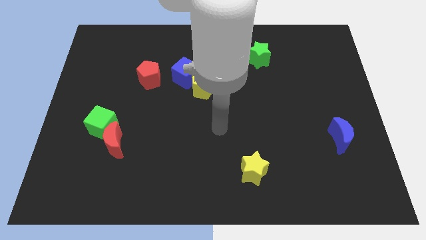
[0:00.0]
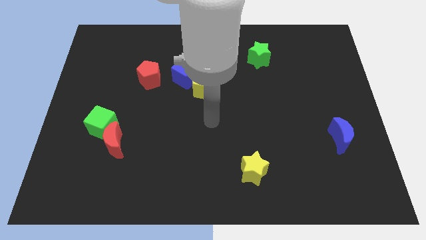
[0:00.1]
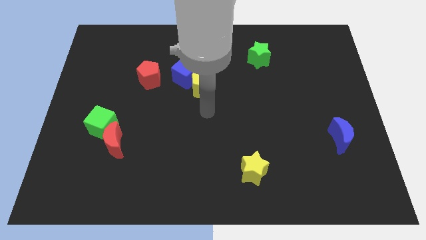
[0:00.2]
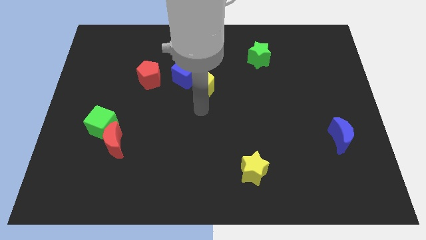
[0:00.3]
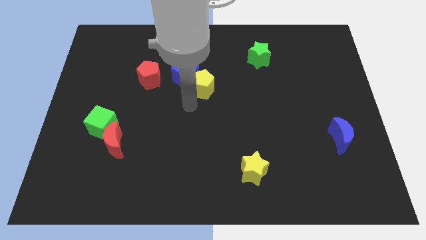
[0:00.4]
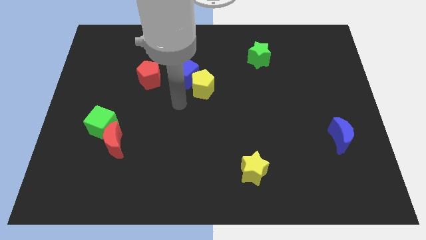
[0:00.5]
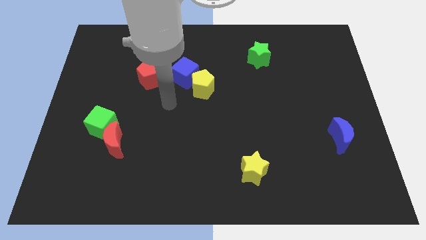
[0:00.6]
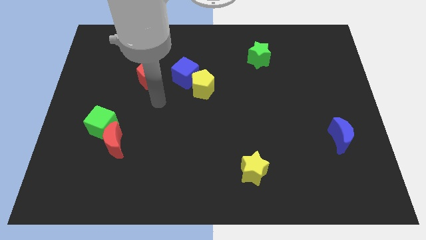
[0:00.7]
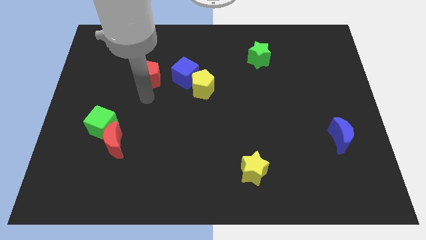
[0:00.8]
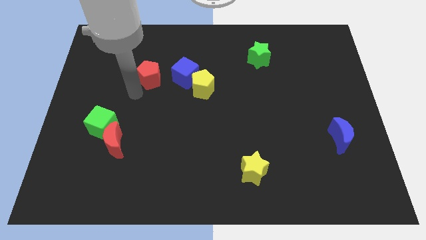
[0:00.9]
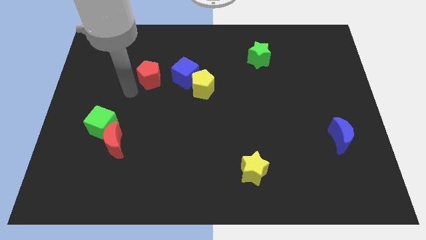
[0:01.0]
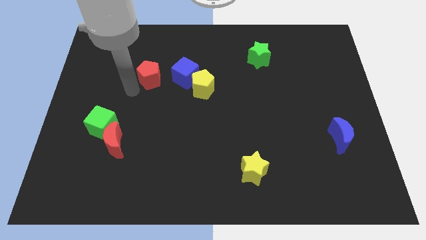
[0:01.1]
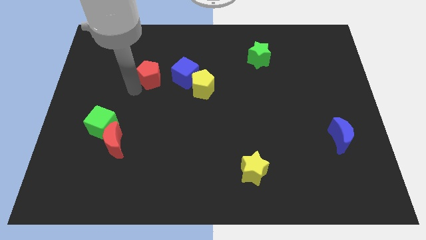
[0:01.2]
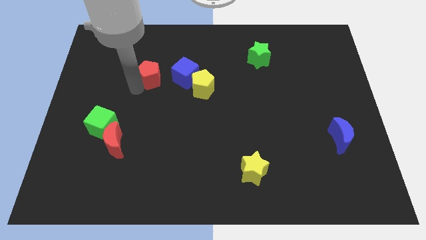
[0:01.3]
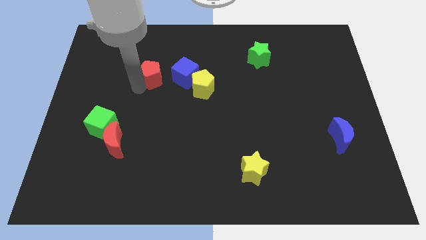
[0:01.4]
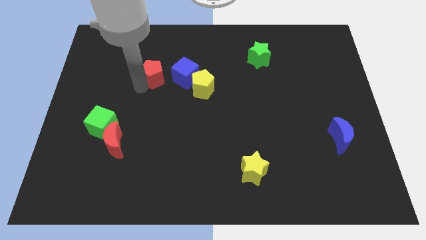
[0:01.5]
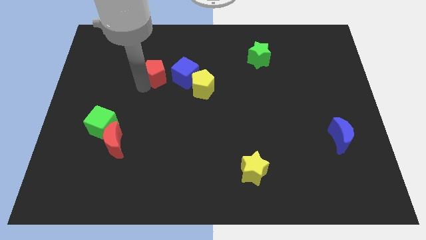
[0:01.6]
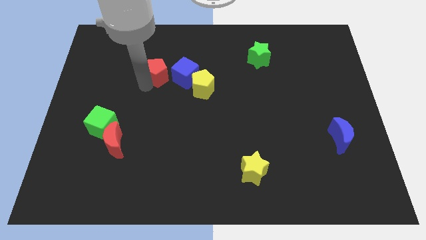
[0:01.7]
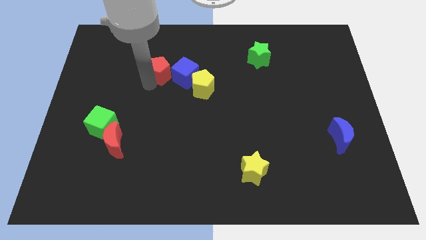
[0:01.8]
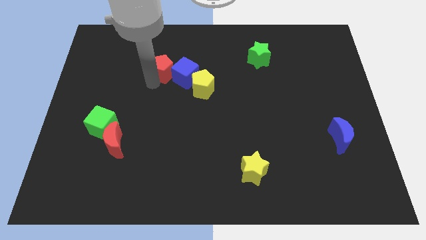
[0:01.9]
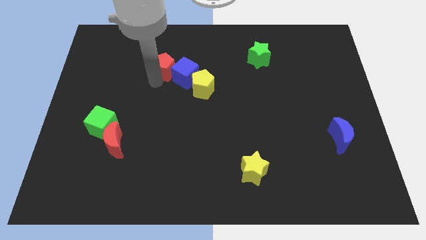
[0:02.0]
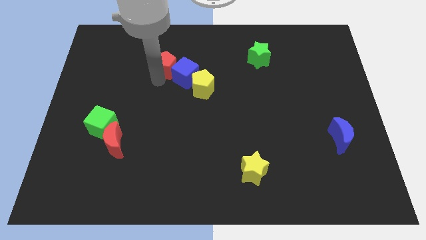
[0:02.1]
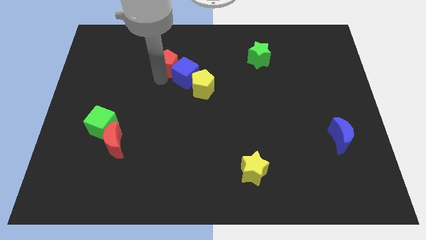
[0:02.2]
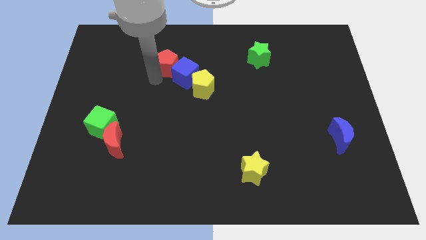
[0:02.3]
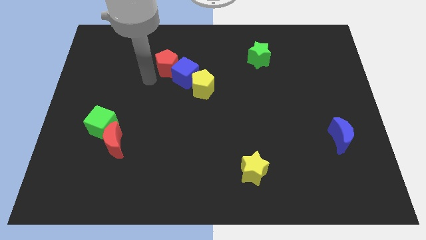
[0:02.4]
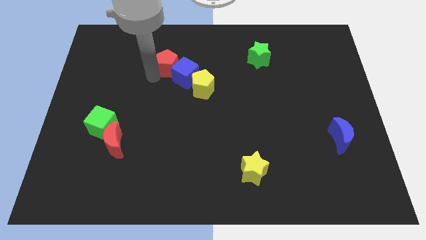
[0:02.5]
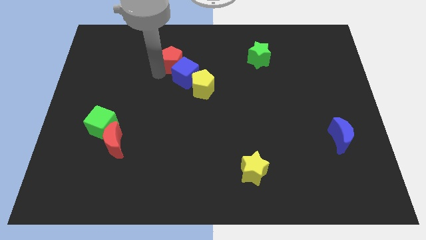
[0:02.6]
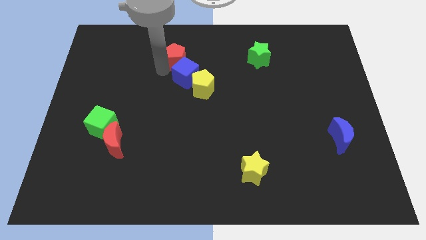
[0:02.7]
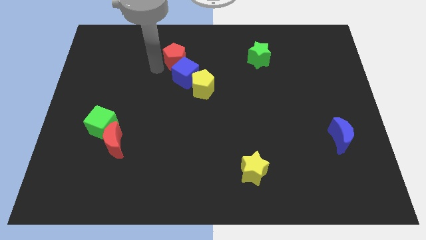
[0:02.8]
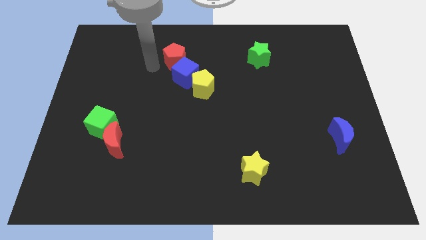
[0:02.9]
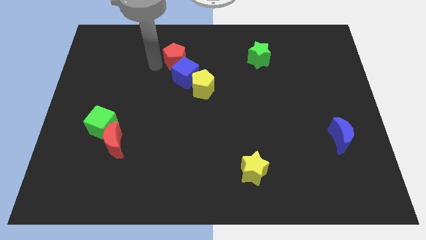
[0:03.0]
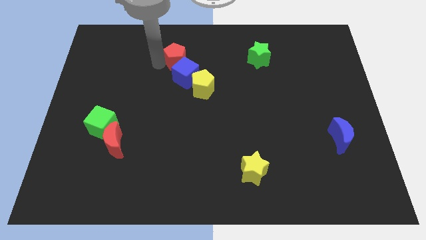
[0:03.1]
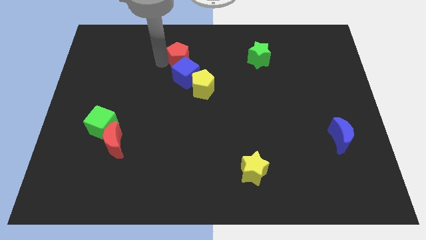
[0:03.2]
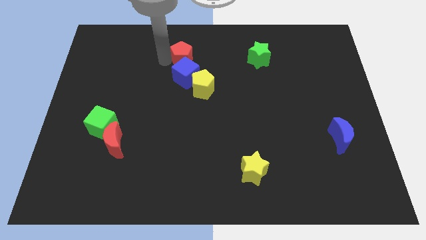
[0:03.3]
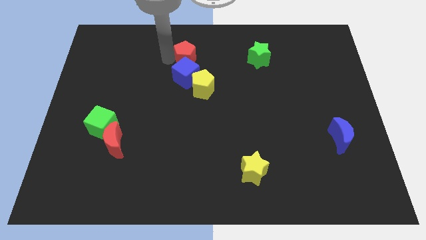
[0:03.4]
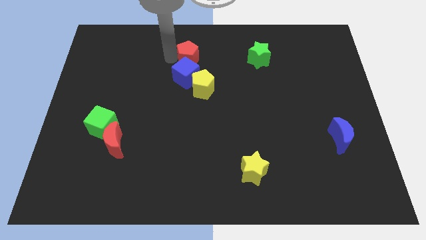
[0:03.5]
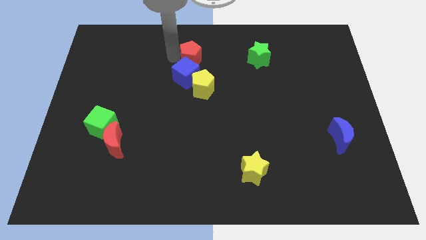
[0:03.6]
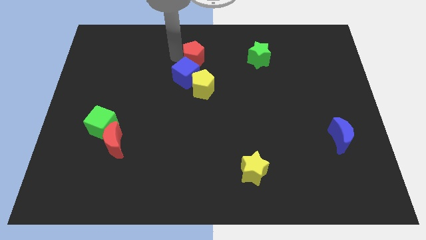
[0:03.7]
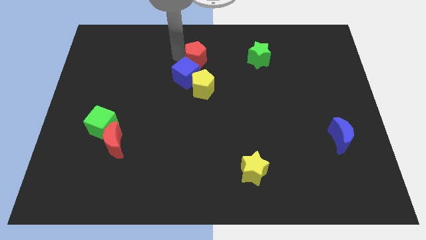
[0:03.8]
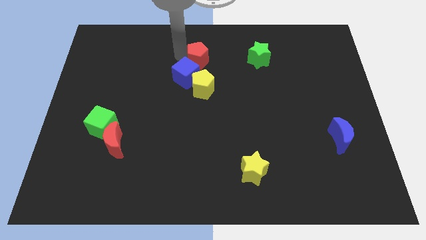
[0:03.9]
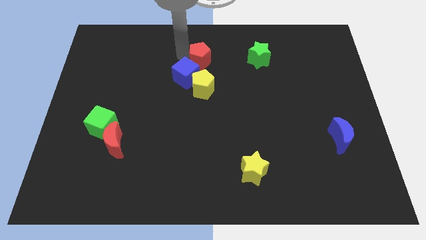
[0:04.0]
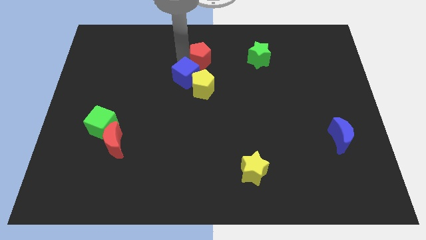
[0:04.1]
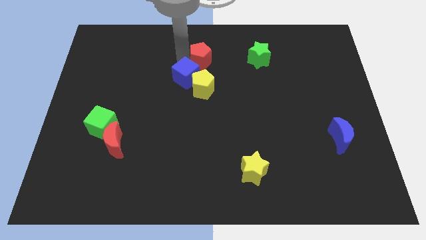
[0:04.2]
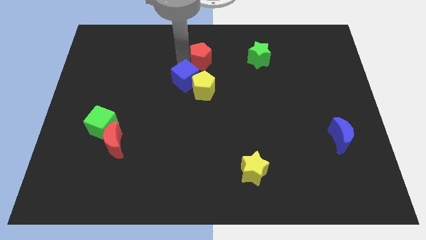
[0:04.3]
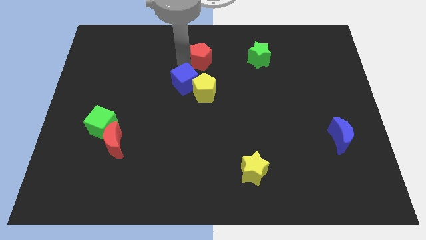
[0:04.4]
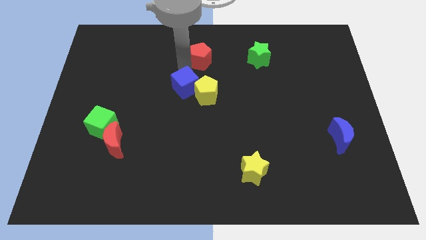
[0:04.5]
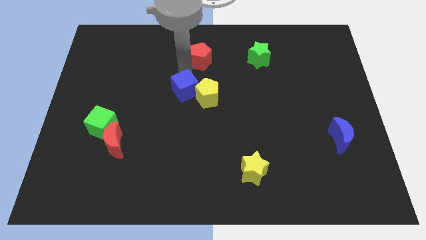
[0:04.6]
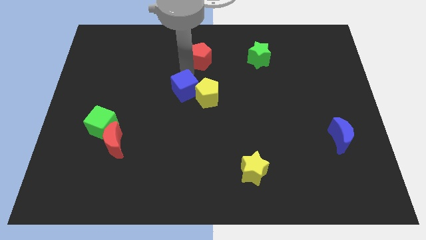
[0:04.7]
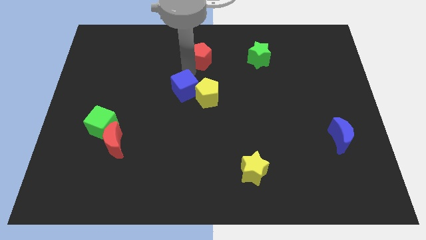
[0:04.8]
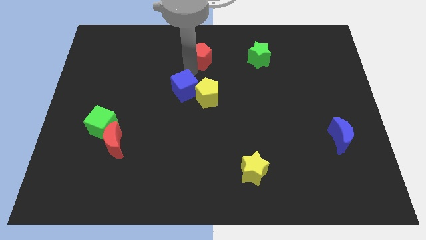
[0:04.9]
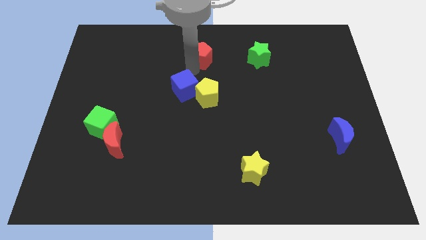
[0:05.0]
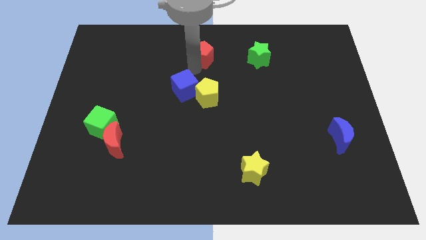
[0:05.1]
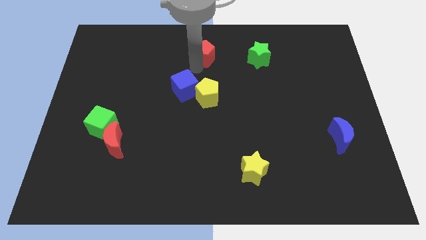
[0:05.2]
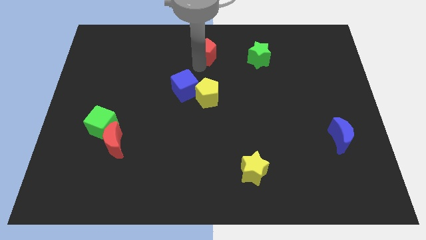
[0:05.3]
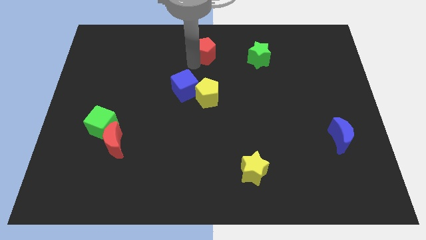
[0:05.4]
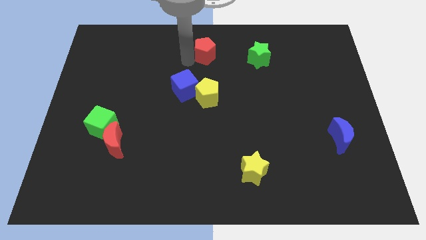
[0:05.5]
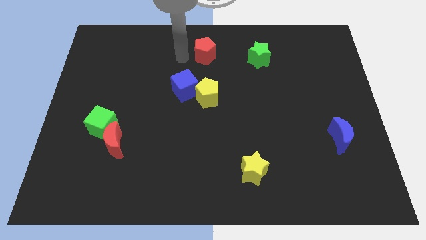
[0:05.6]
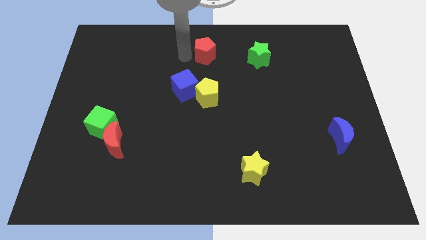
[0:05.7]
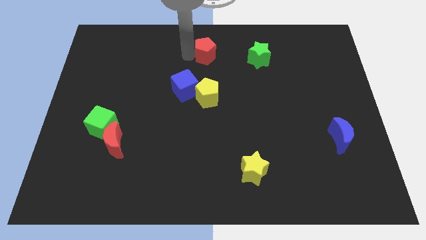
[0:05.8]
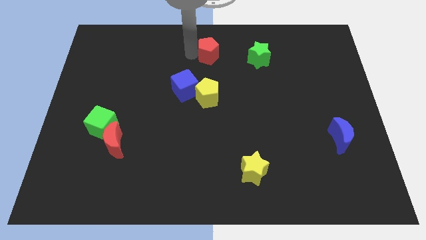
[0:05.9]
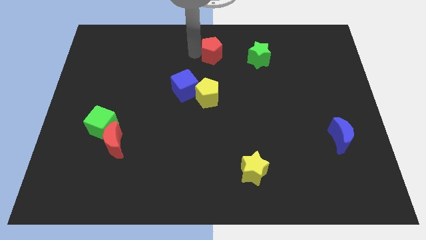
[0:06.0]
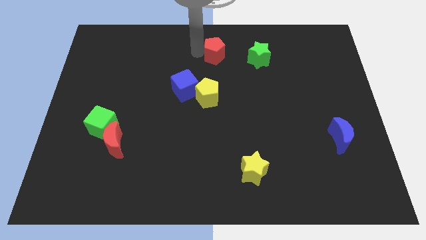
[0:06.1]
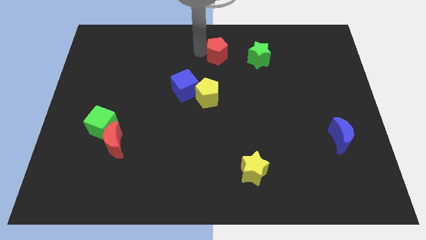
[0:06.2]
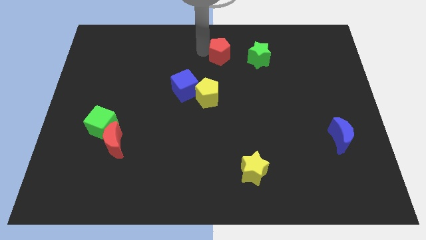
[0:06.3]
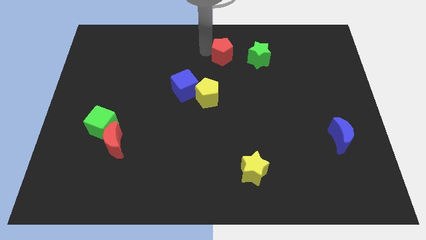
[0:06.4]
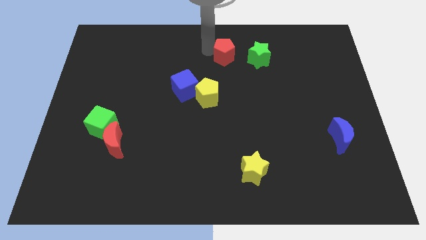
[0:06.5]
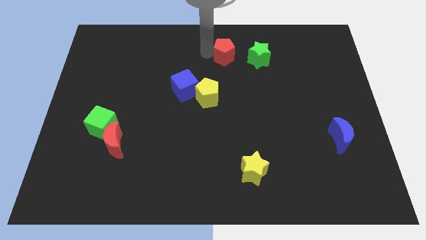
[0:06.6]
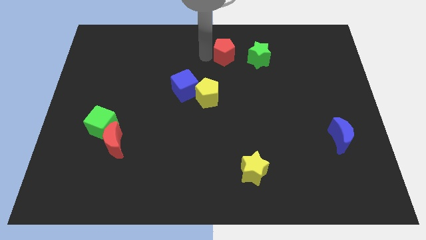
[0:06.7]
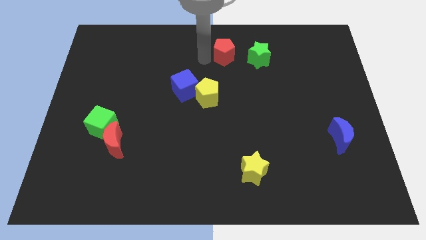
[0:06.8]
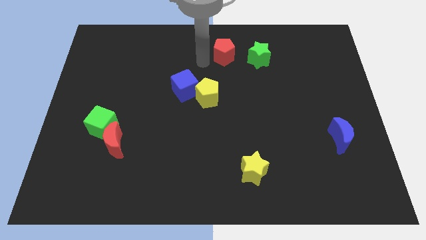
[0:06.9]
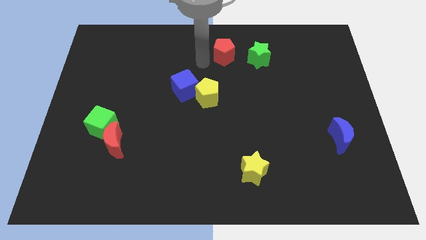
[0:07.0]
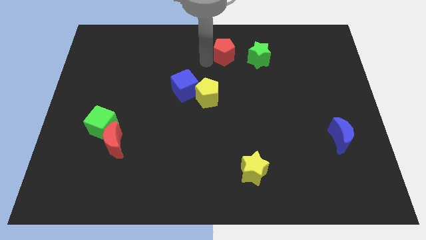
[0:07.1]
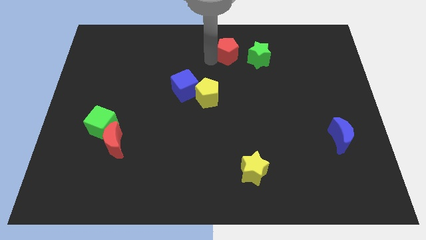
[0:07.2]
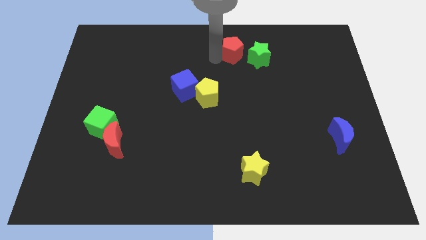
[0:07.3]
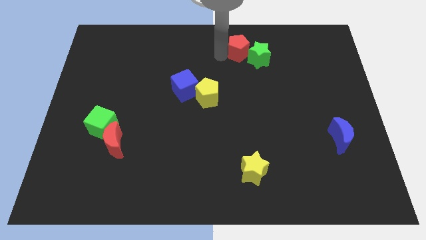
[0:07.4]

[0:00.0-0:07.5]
slide the red pentagon to the green star
